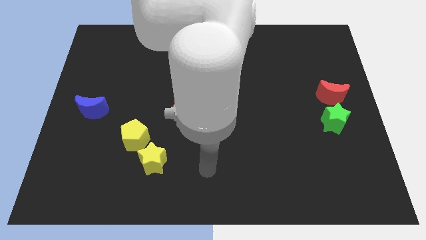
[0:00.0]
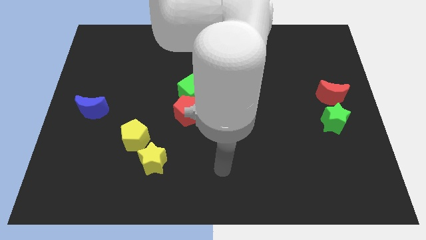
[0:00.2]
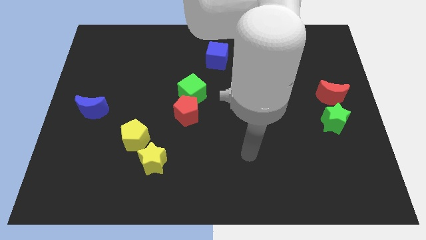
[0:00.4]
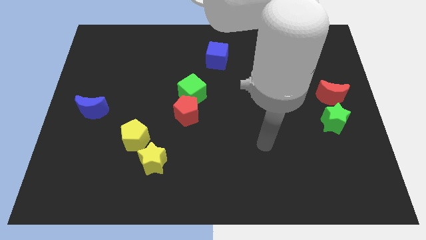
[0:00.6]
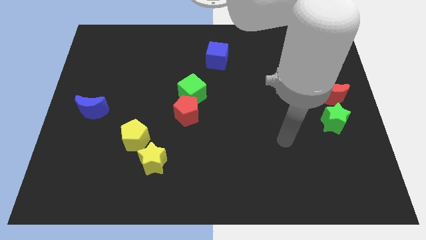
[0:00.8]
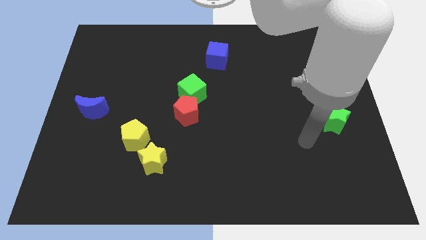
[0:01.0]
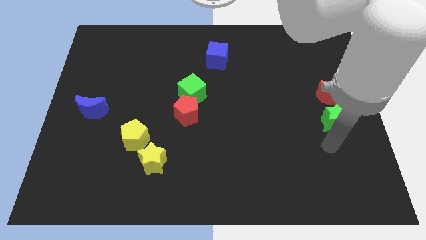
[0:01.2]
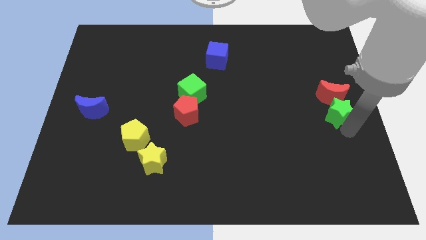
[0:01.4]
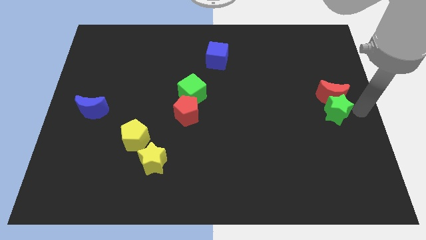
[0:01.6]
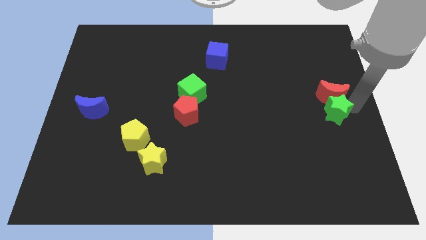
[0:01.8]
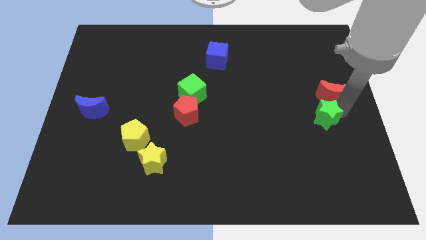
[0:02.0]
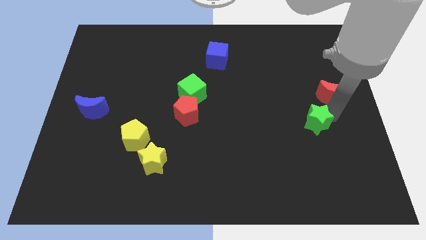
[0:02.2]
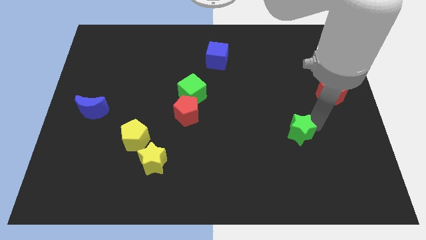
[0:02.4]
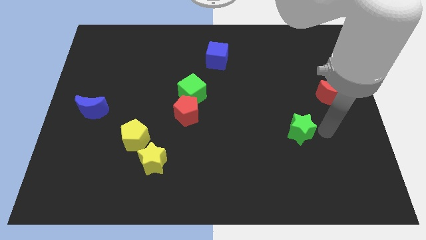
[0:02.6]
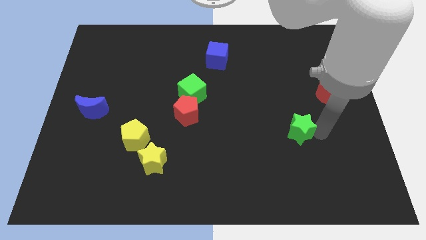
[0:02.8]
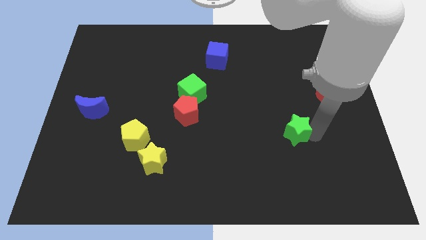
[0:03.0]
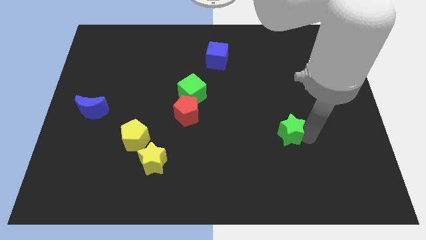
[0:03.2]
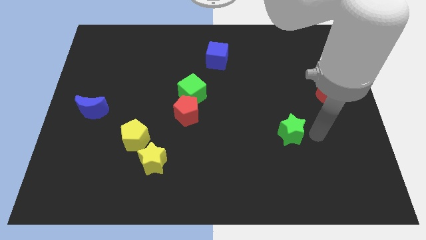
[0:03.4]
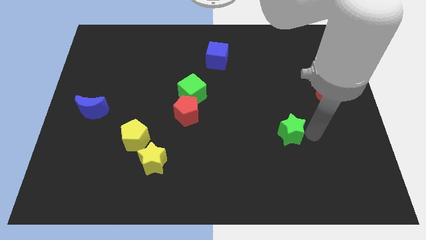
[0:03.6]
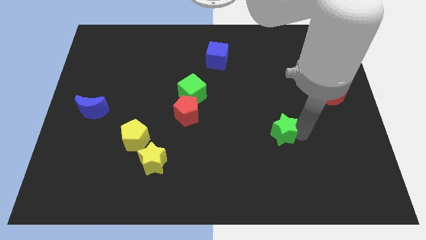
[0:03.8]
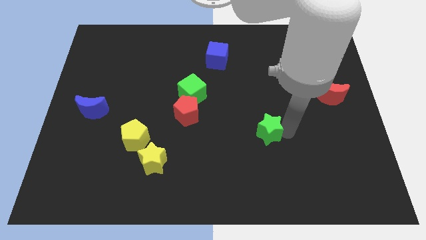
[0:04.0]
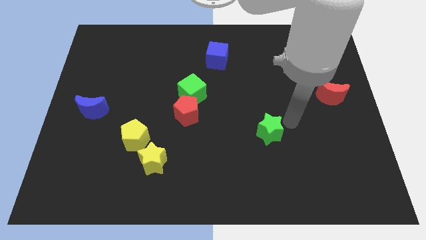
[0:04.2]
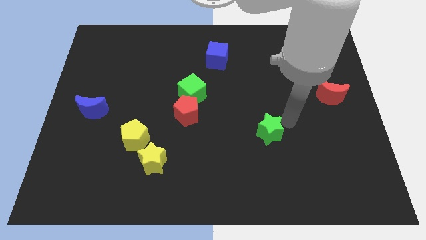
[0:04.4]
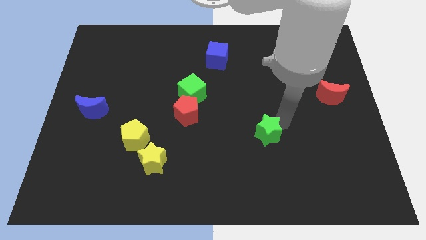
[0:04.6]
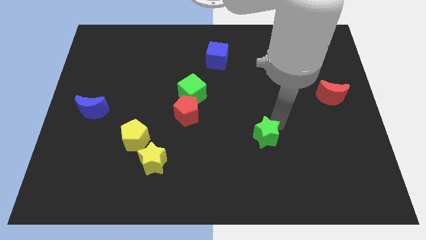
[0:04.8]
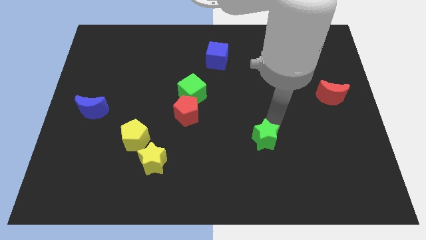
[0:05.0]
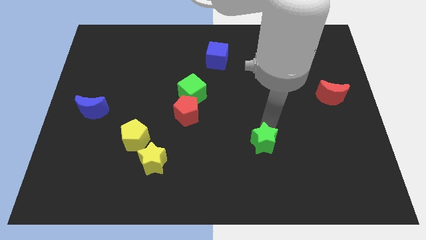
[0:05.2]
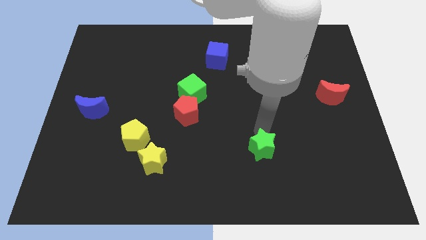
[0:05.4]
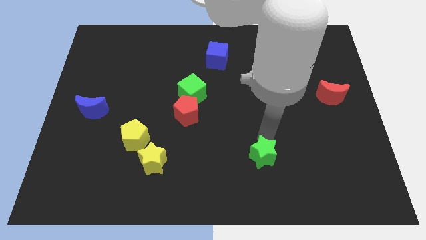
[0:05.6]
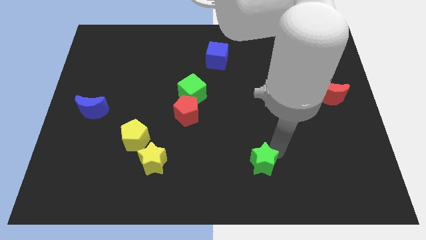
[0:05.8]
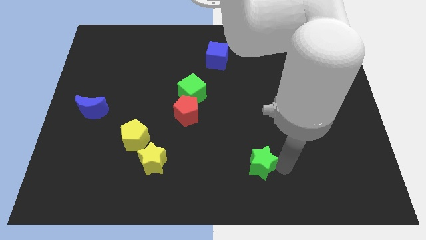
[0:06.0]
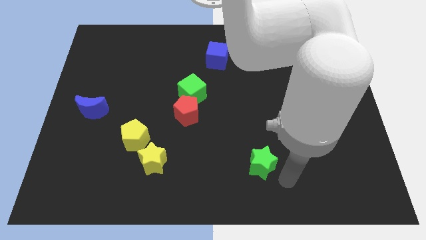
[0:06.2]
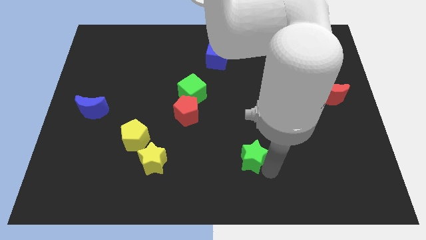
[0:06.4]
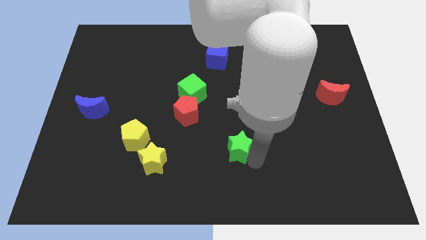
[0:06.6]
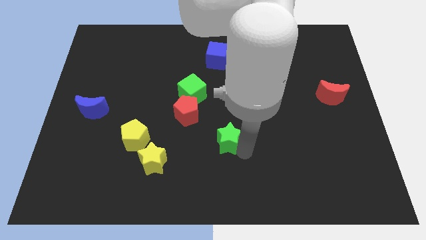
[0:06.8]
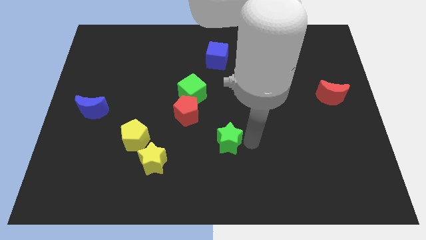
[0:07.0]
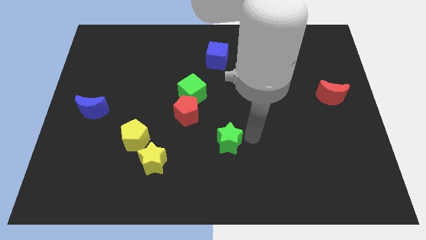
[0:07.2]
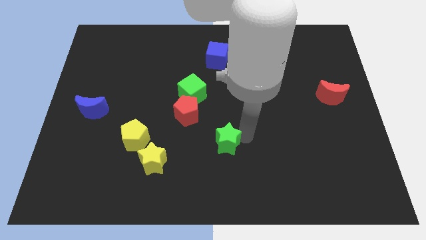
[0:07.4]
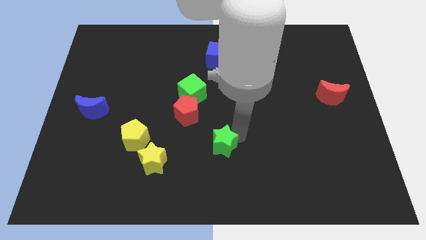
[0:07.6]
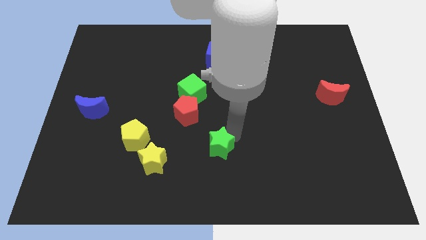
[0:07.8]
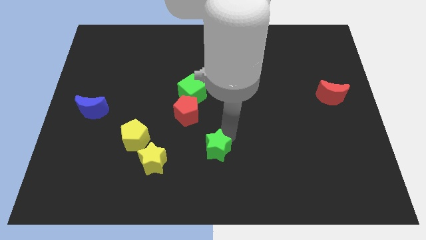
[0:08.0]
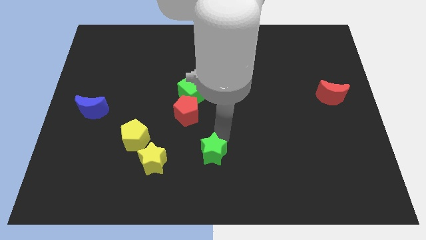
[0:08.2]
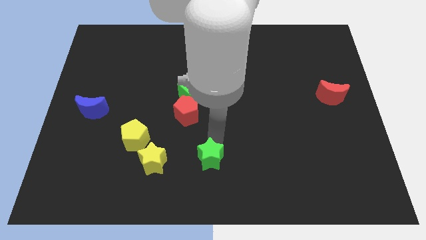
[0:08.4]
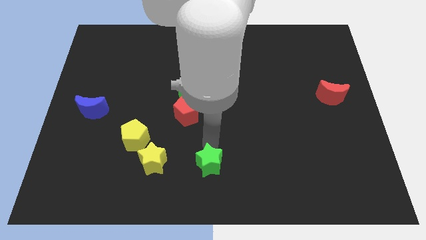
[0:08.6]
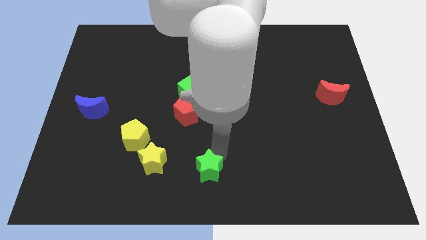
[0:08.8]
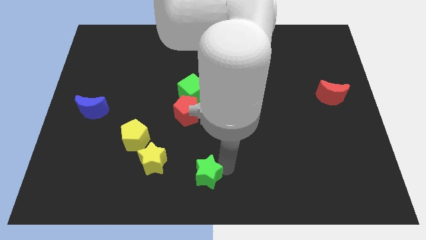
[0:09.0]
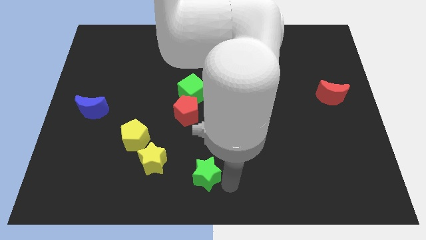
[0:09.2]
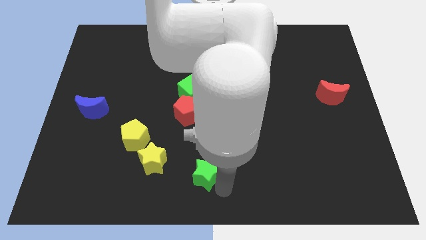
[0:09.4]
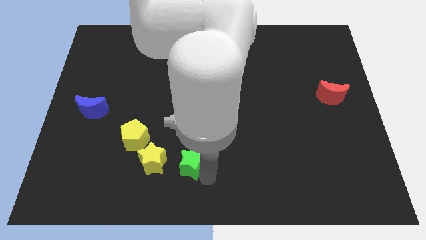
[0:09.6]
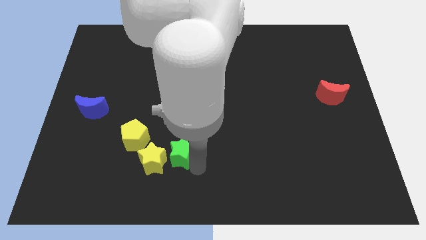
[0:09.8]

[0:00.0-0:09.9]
put the green star next to the yellow star

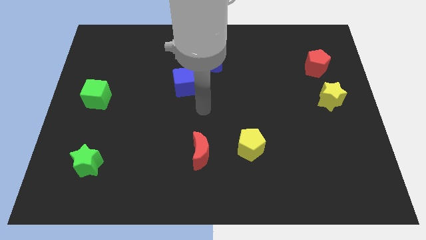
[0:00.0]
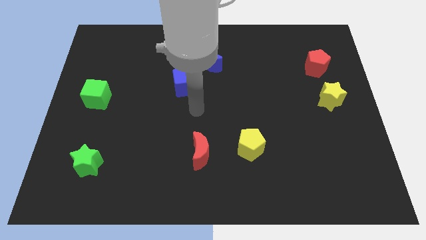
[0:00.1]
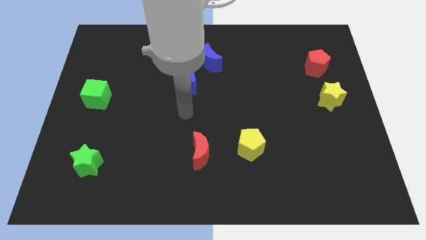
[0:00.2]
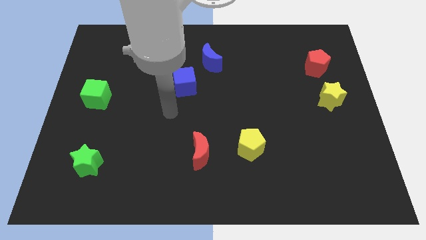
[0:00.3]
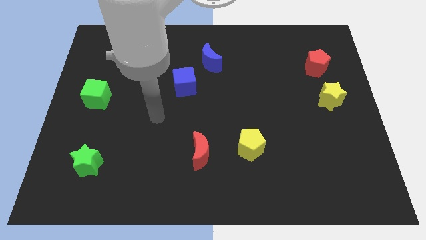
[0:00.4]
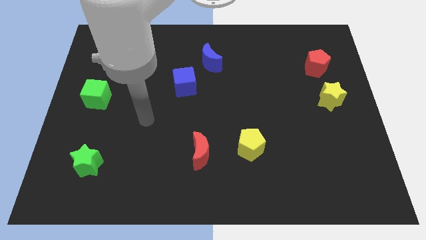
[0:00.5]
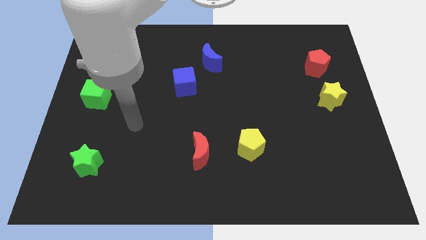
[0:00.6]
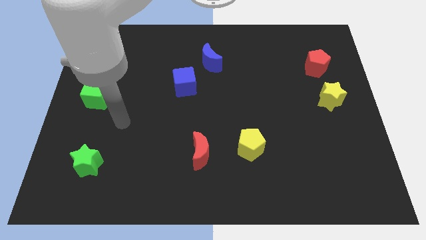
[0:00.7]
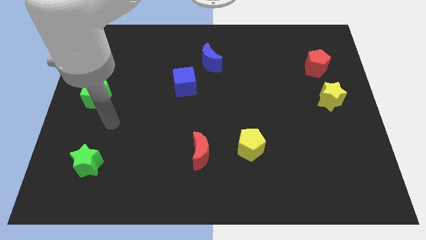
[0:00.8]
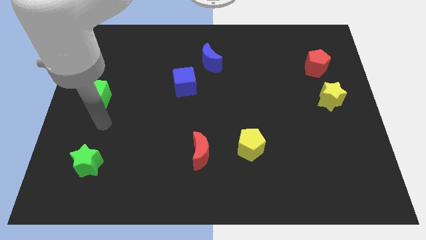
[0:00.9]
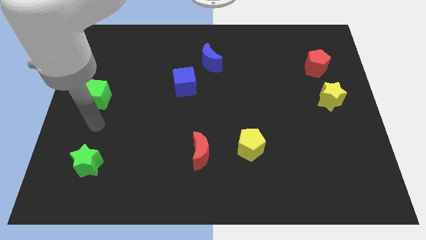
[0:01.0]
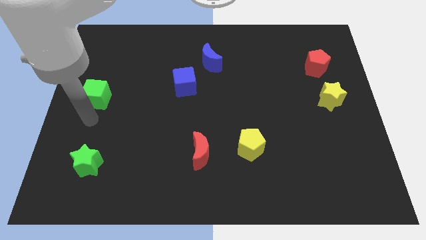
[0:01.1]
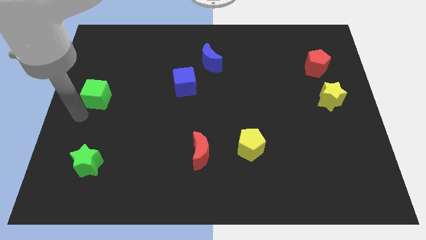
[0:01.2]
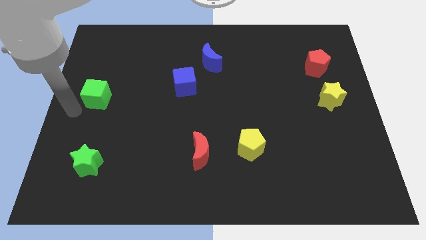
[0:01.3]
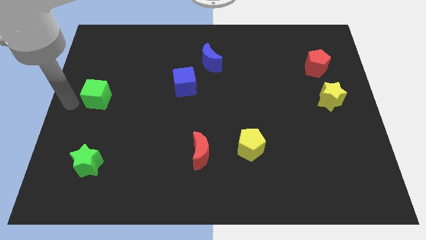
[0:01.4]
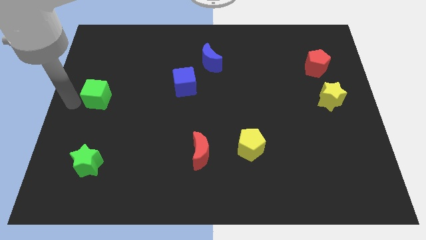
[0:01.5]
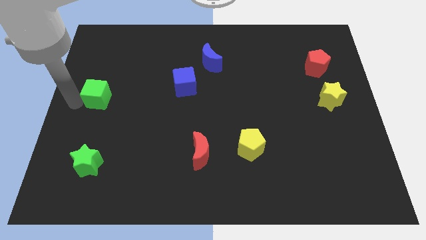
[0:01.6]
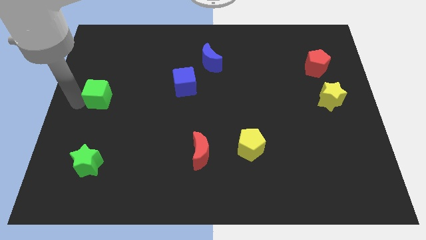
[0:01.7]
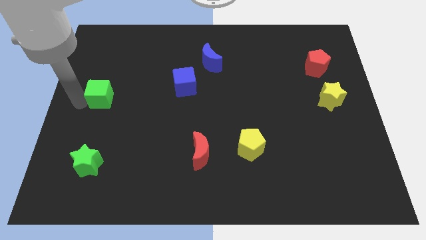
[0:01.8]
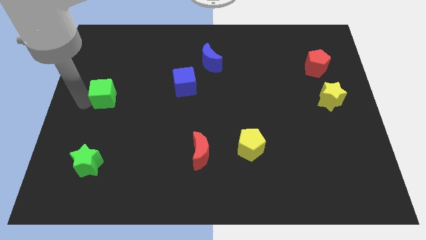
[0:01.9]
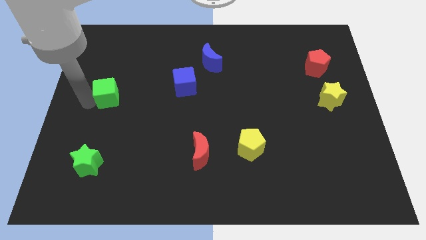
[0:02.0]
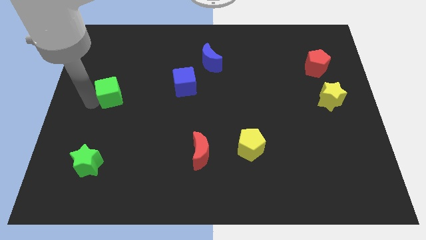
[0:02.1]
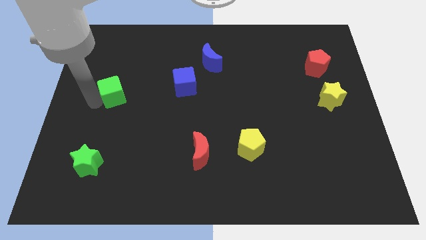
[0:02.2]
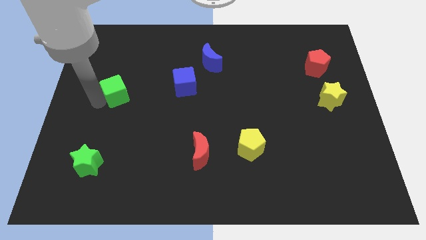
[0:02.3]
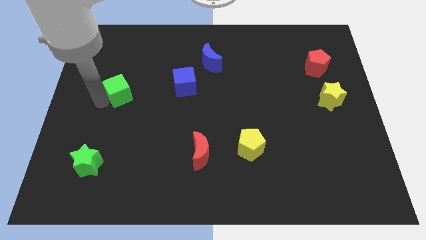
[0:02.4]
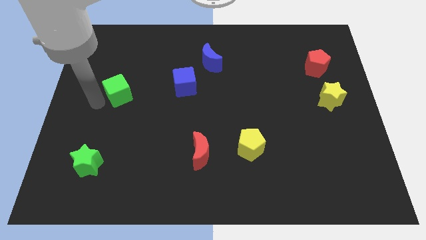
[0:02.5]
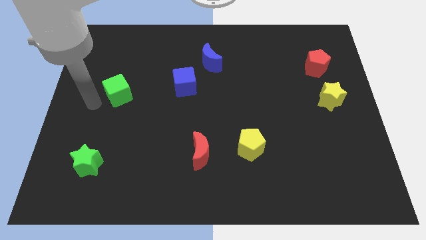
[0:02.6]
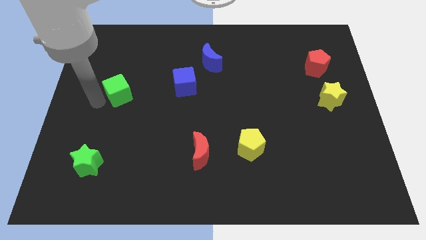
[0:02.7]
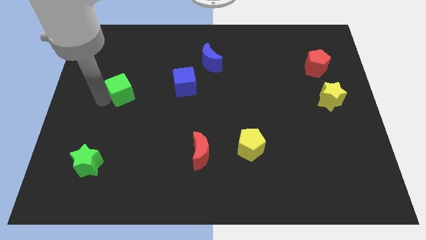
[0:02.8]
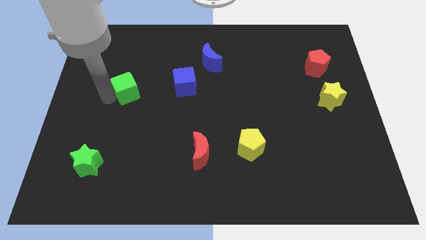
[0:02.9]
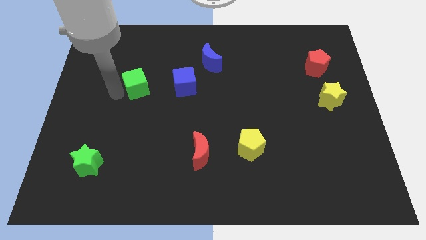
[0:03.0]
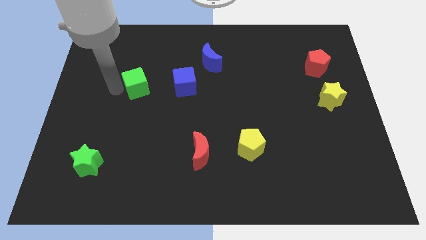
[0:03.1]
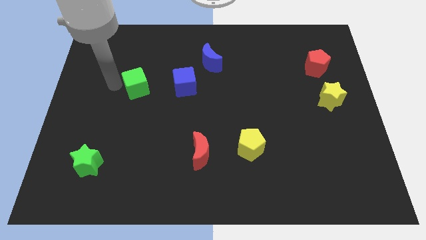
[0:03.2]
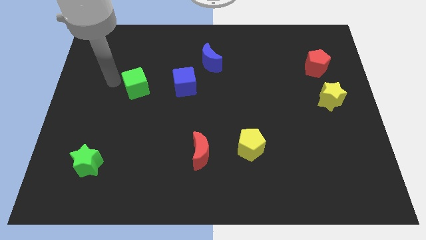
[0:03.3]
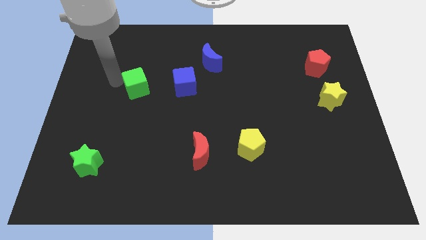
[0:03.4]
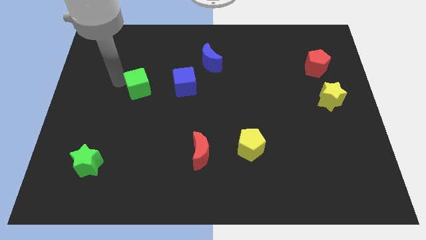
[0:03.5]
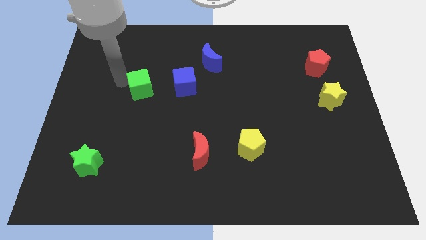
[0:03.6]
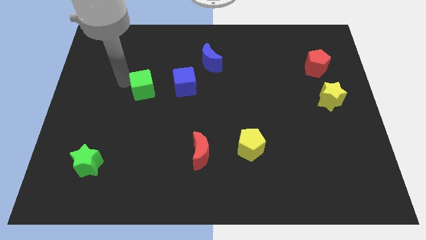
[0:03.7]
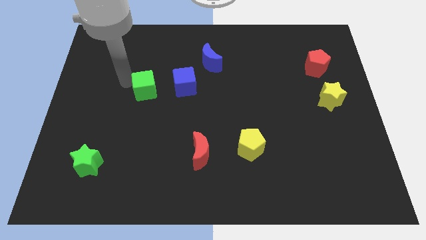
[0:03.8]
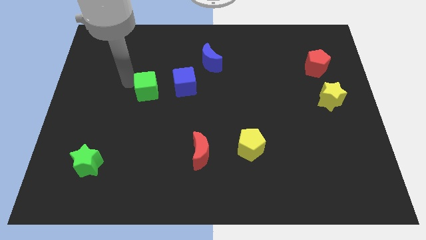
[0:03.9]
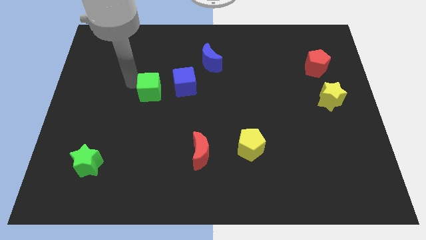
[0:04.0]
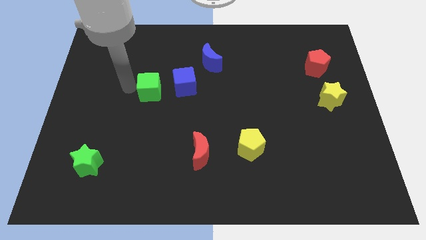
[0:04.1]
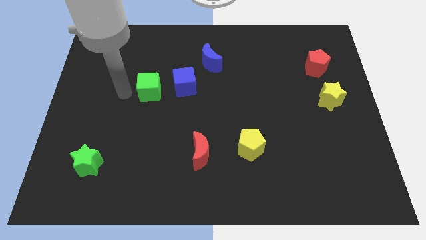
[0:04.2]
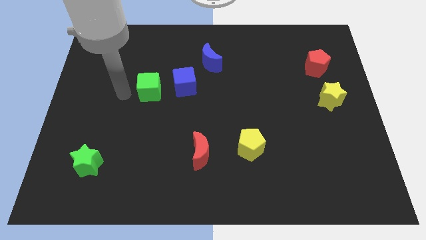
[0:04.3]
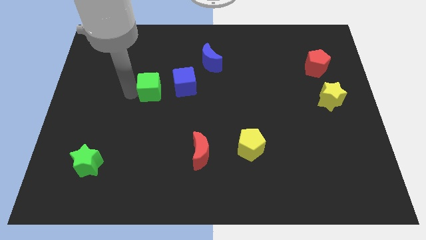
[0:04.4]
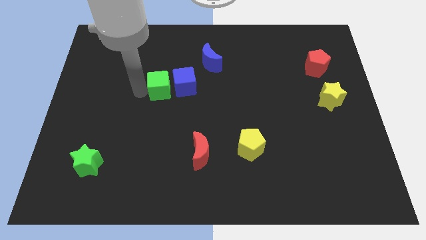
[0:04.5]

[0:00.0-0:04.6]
push the green cube close to the blue cube
